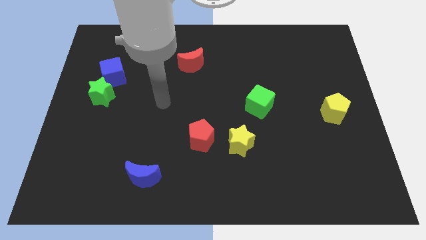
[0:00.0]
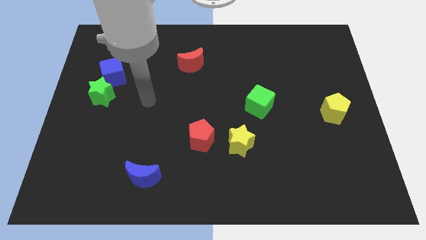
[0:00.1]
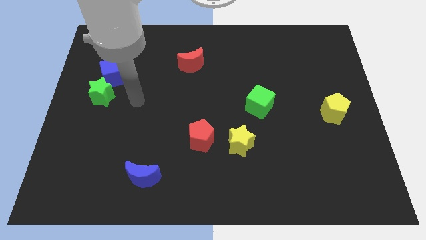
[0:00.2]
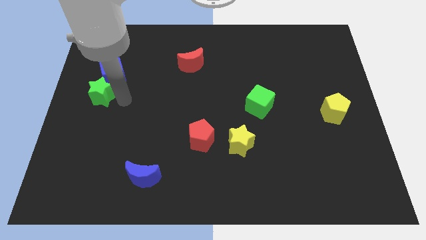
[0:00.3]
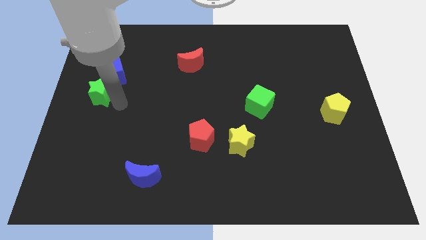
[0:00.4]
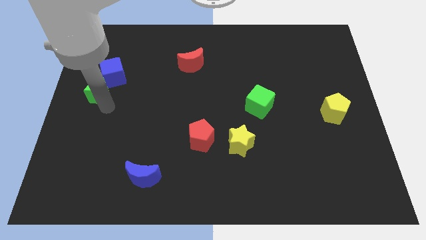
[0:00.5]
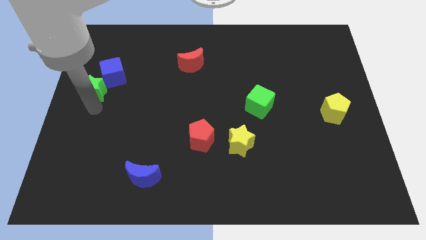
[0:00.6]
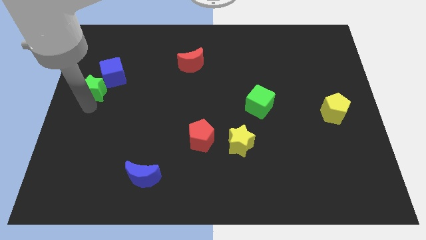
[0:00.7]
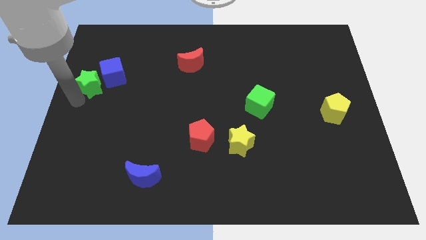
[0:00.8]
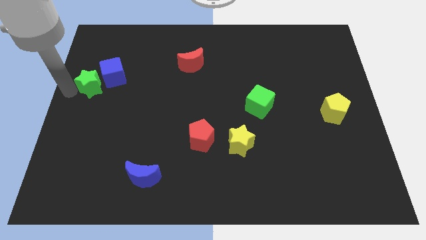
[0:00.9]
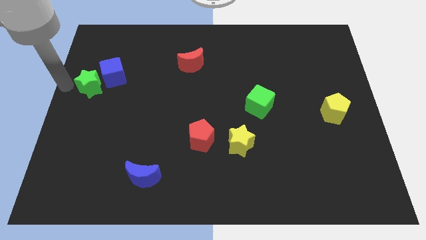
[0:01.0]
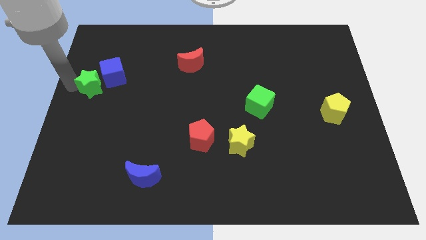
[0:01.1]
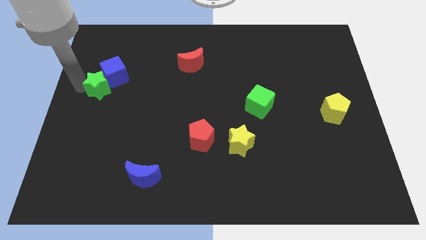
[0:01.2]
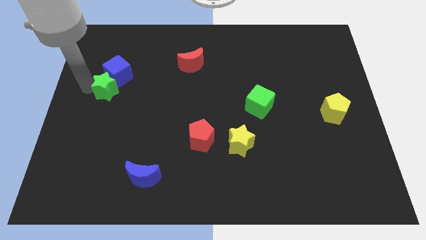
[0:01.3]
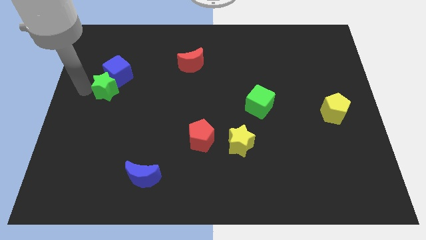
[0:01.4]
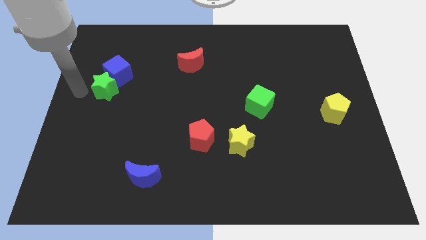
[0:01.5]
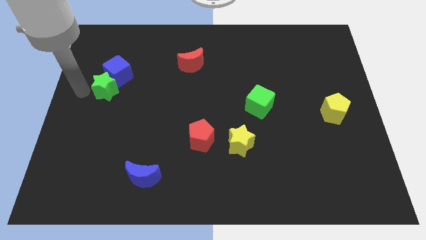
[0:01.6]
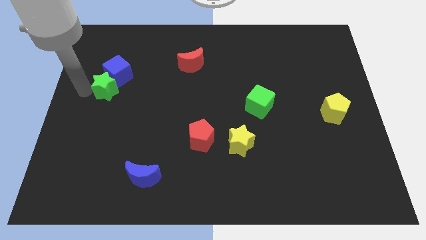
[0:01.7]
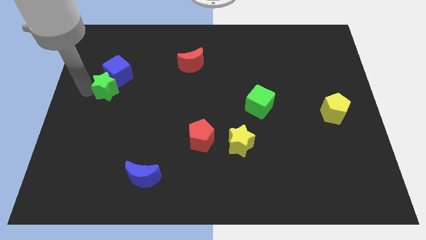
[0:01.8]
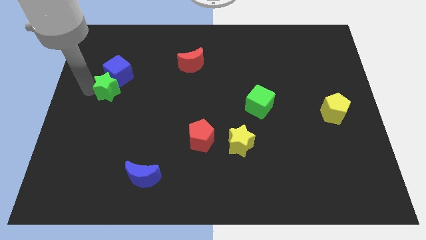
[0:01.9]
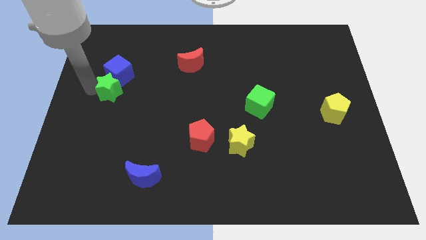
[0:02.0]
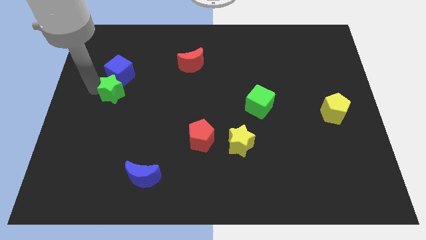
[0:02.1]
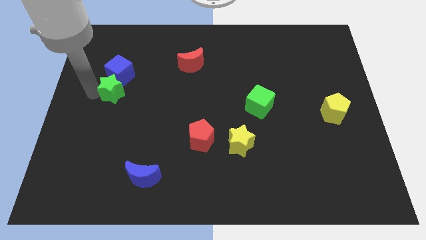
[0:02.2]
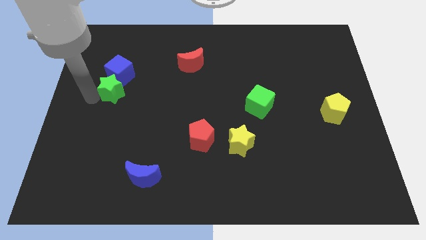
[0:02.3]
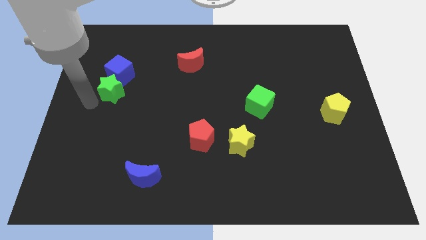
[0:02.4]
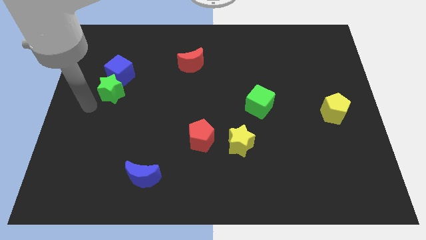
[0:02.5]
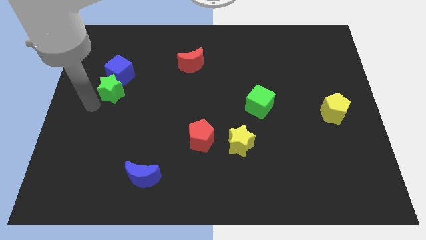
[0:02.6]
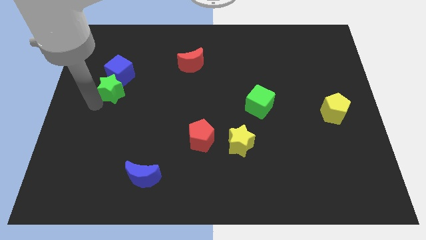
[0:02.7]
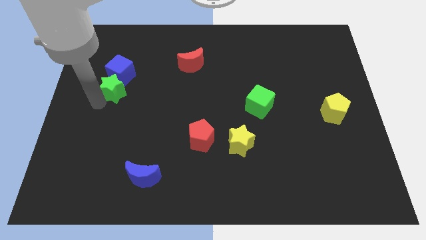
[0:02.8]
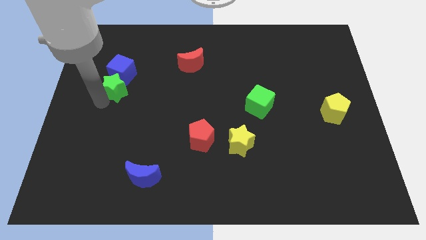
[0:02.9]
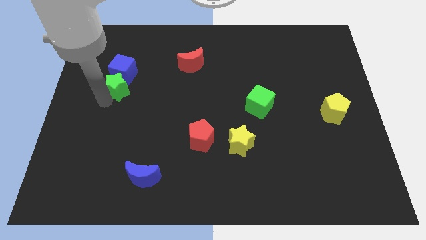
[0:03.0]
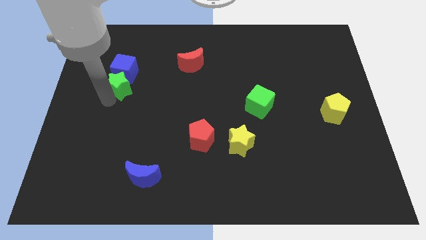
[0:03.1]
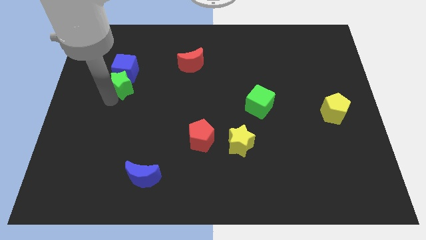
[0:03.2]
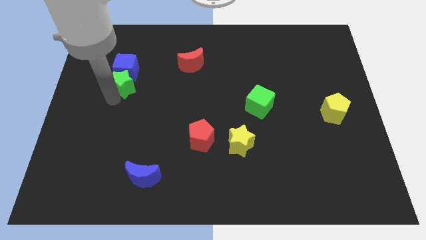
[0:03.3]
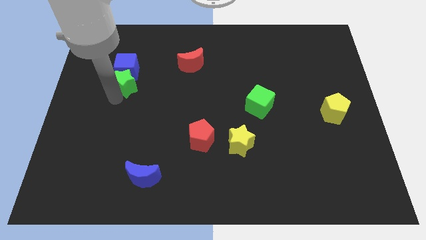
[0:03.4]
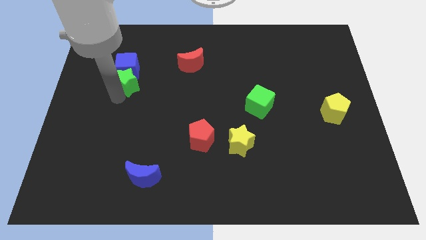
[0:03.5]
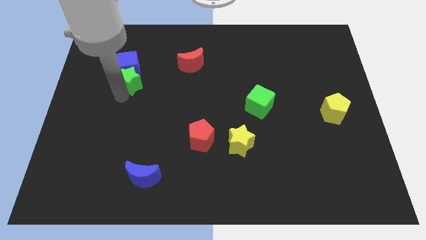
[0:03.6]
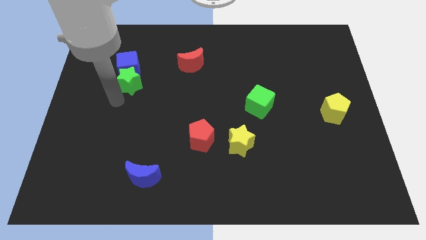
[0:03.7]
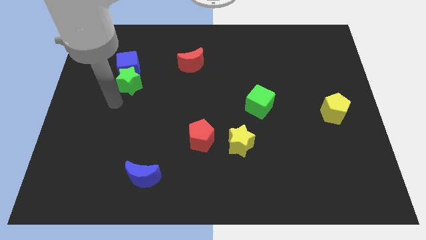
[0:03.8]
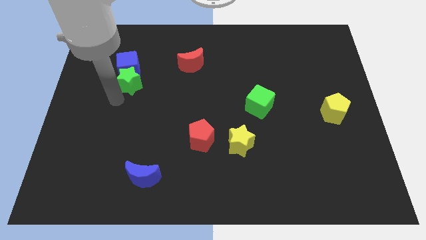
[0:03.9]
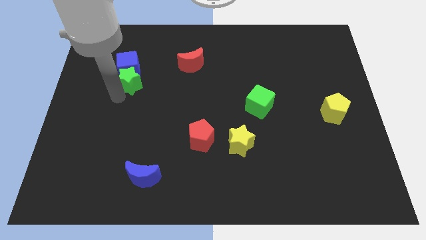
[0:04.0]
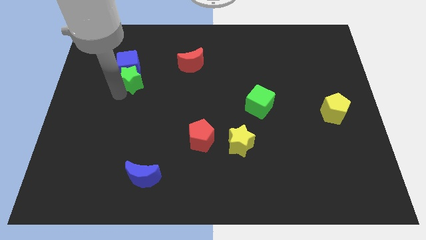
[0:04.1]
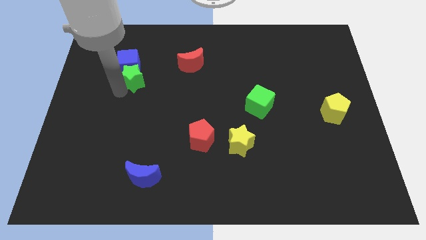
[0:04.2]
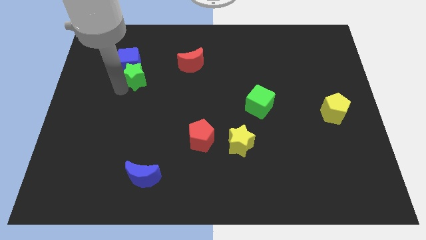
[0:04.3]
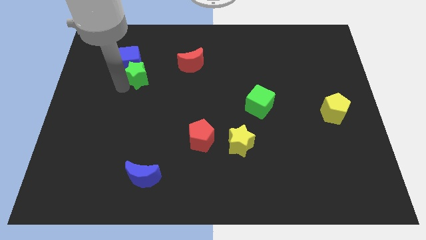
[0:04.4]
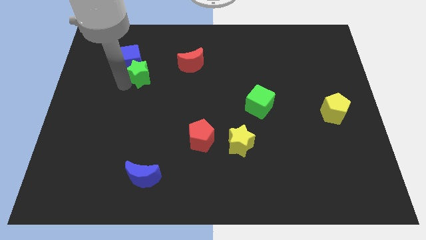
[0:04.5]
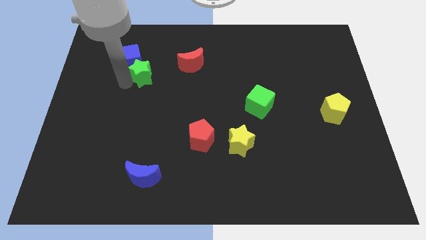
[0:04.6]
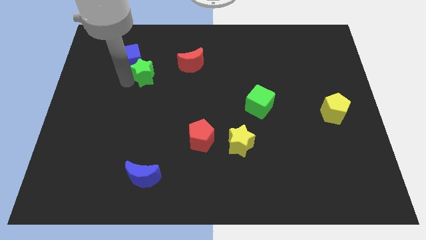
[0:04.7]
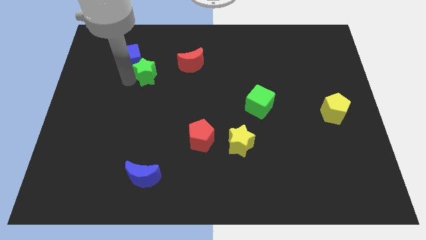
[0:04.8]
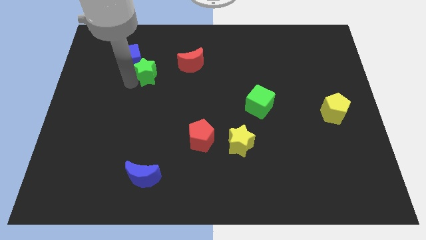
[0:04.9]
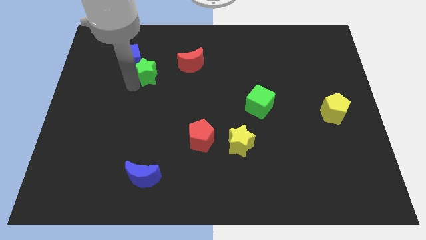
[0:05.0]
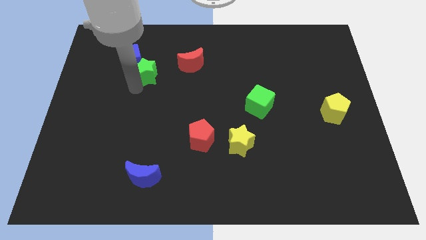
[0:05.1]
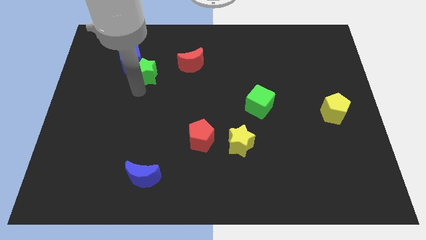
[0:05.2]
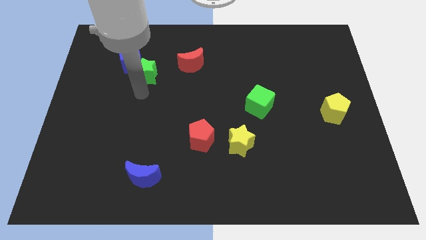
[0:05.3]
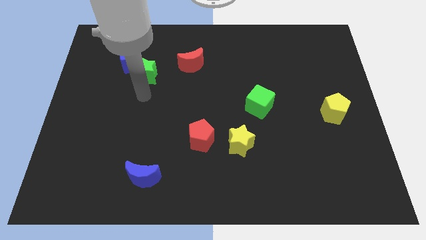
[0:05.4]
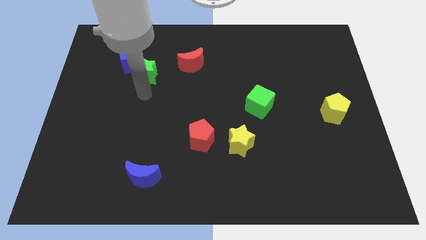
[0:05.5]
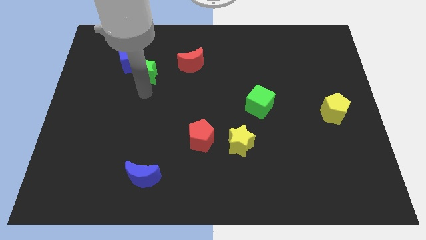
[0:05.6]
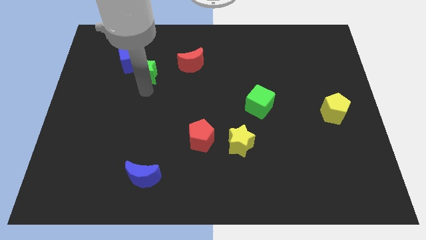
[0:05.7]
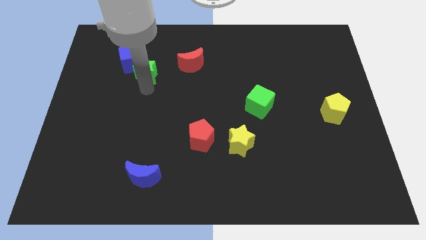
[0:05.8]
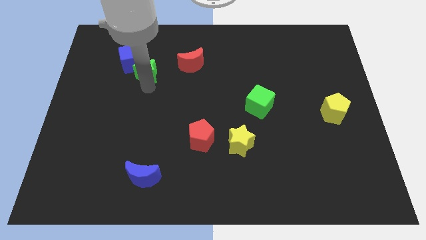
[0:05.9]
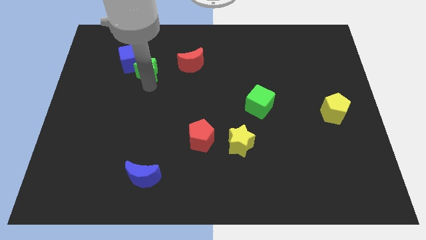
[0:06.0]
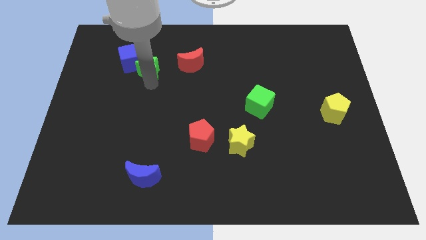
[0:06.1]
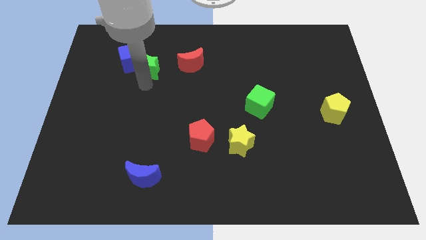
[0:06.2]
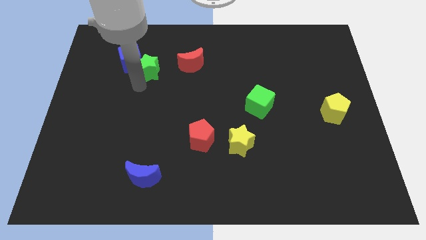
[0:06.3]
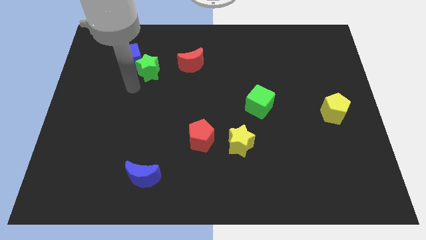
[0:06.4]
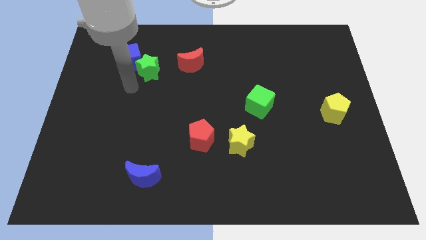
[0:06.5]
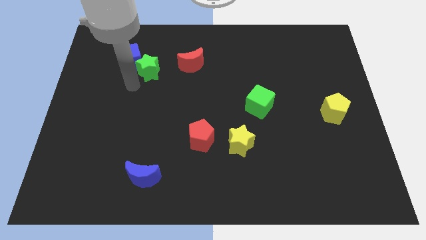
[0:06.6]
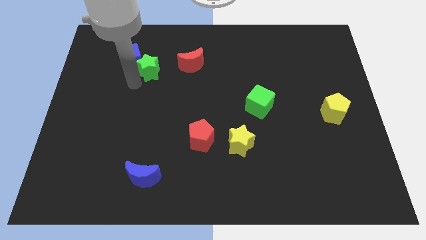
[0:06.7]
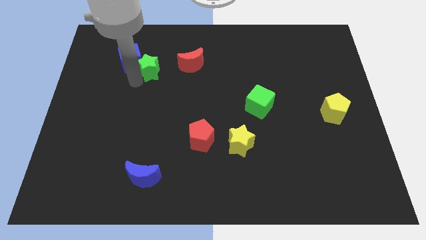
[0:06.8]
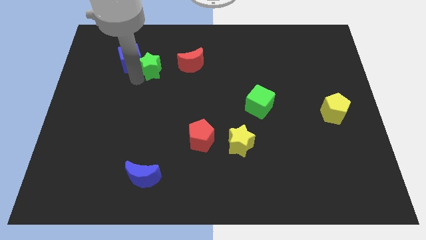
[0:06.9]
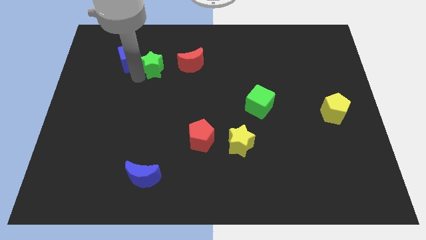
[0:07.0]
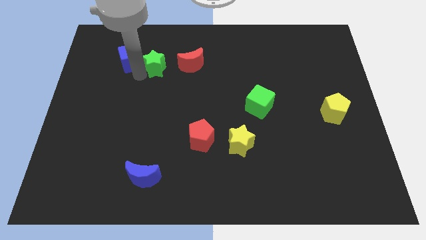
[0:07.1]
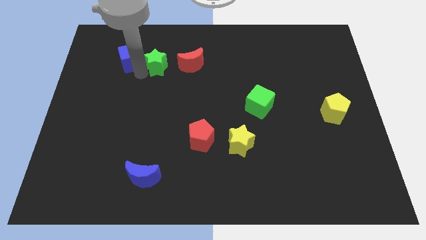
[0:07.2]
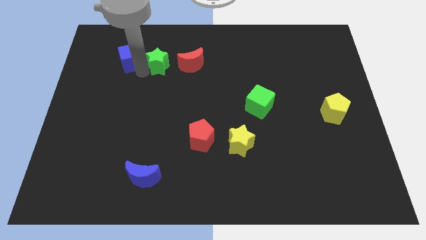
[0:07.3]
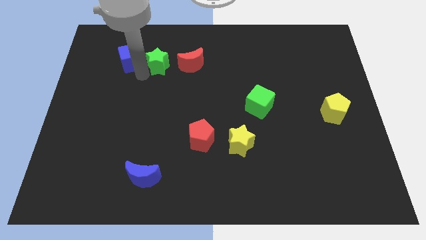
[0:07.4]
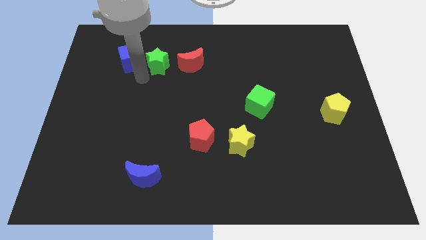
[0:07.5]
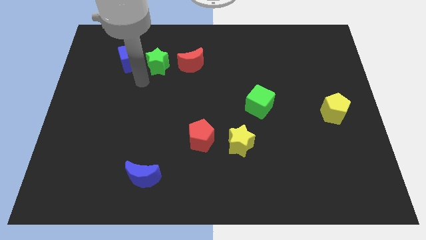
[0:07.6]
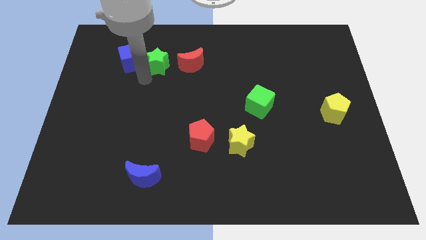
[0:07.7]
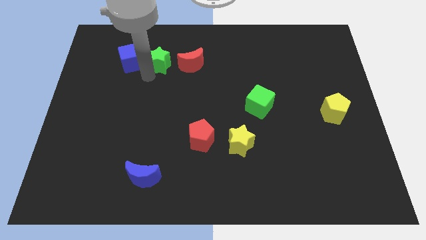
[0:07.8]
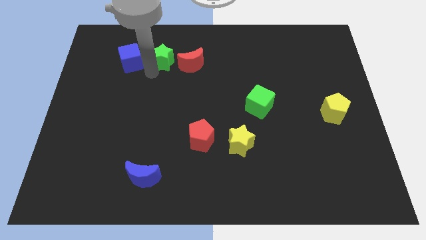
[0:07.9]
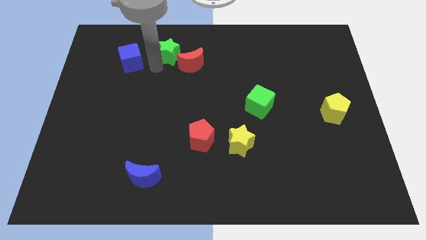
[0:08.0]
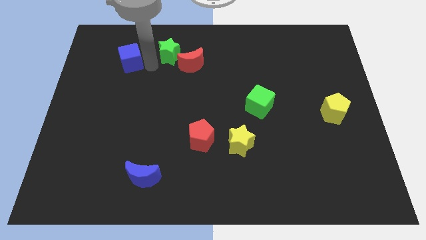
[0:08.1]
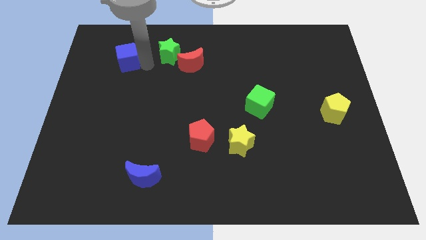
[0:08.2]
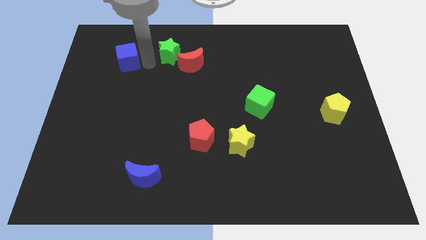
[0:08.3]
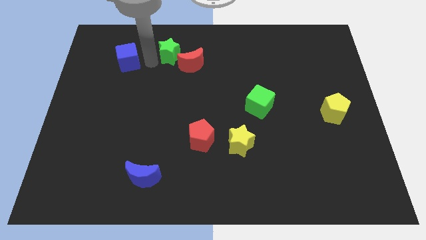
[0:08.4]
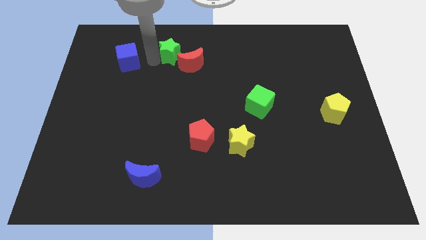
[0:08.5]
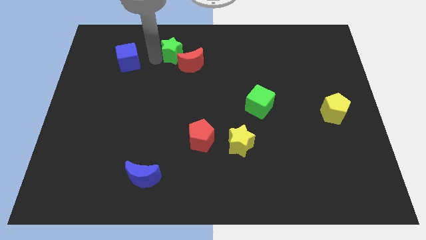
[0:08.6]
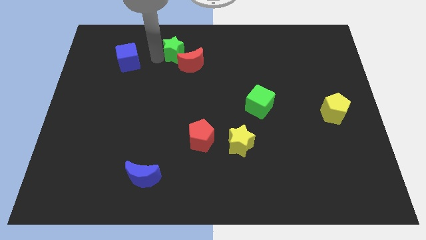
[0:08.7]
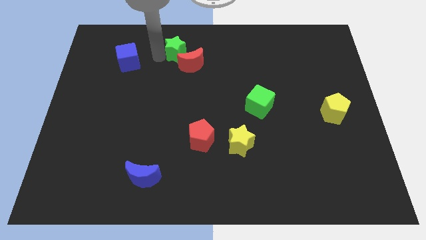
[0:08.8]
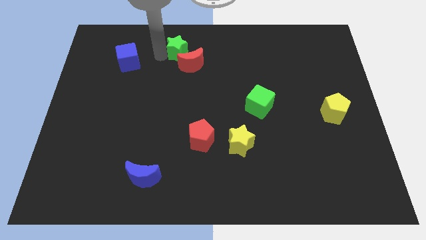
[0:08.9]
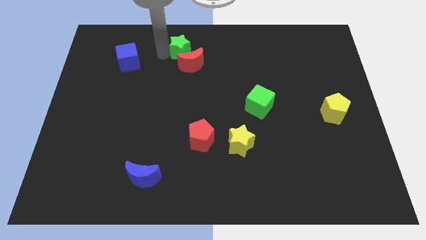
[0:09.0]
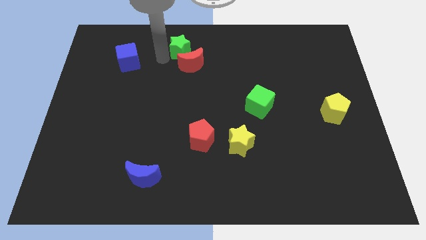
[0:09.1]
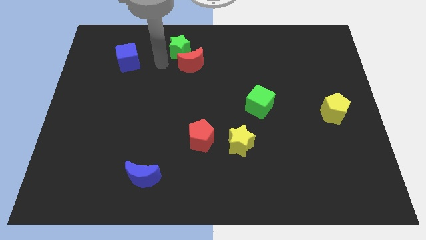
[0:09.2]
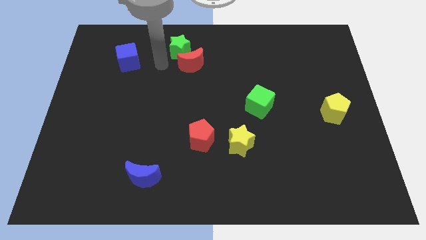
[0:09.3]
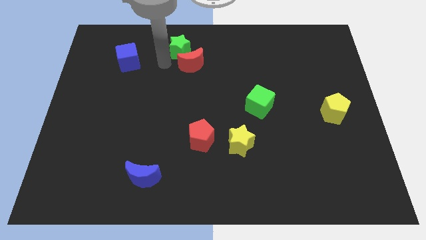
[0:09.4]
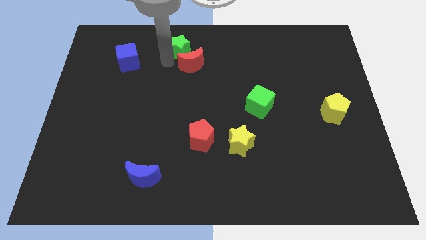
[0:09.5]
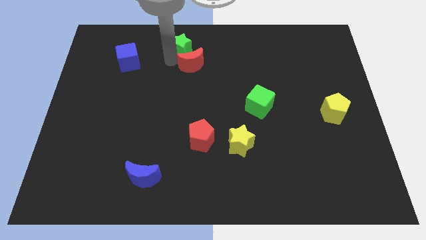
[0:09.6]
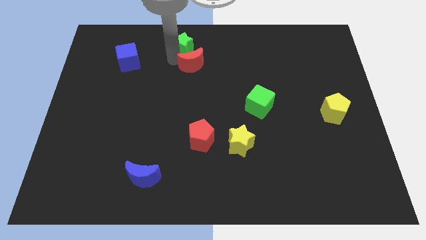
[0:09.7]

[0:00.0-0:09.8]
put the green star to the top
